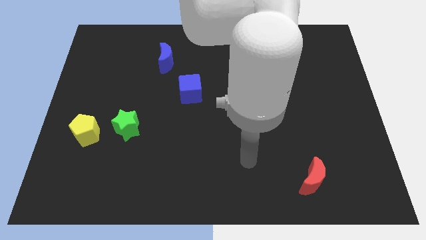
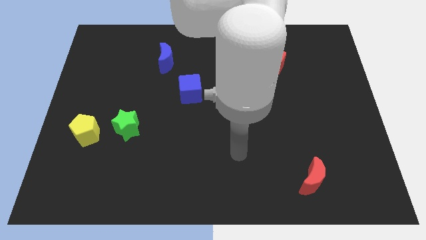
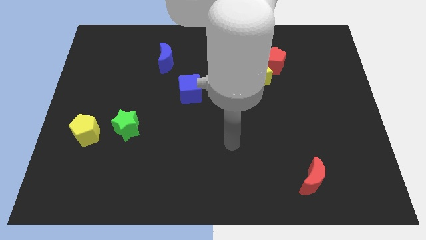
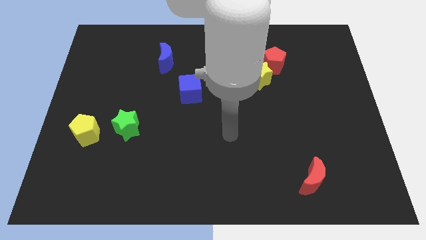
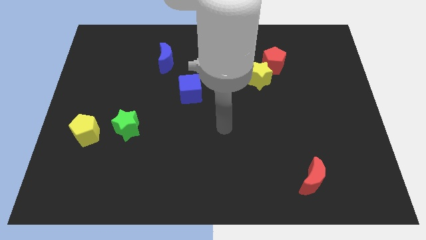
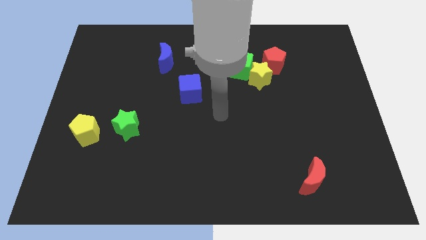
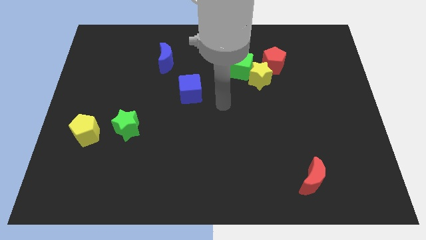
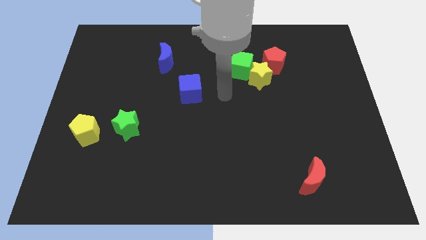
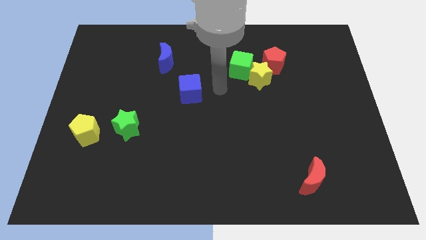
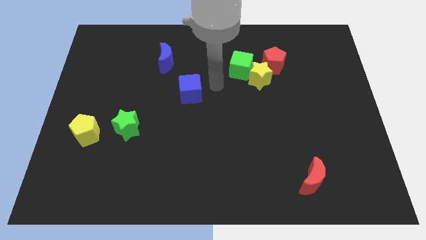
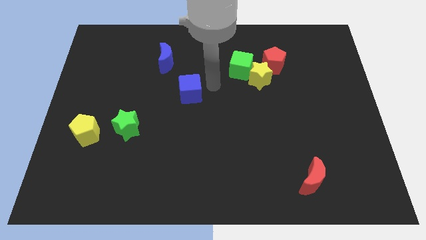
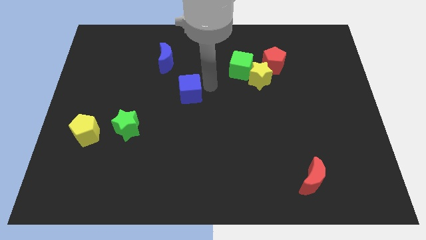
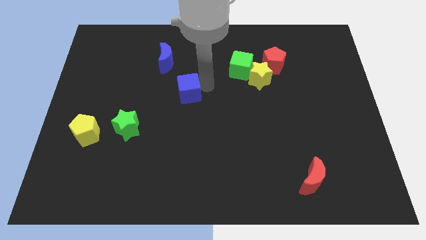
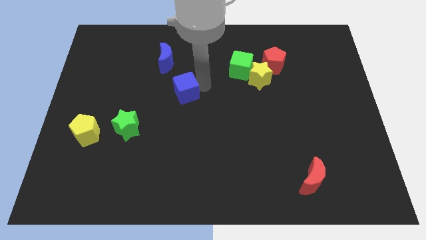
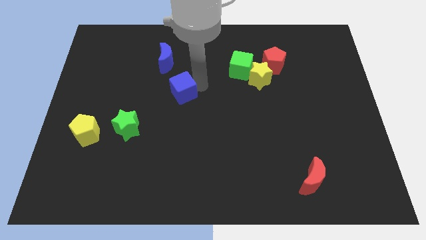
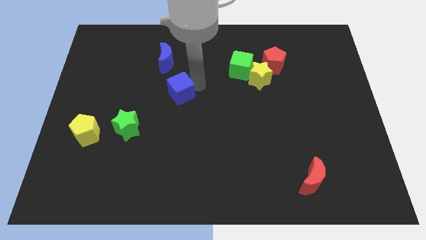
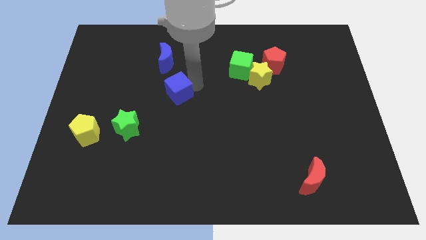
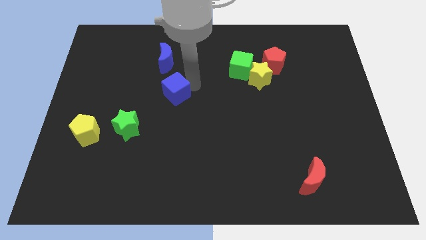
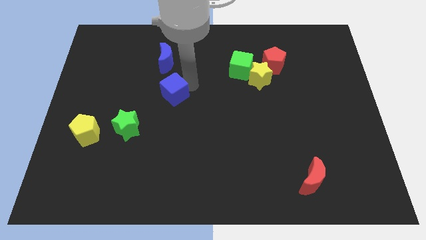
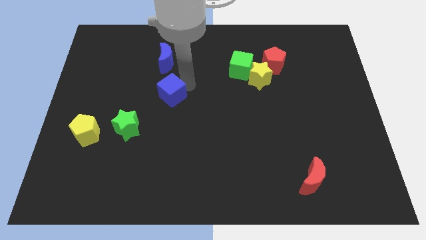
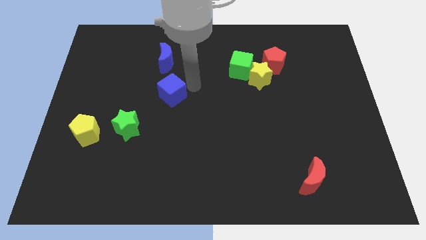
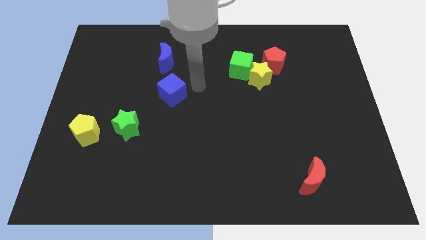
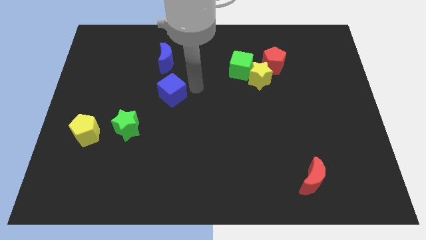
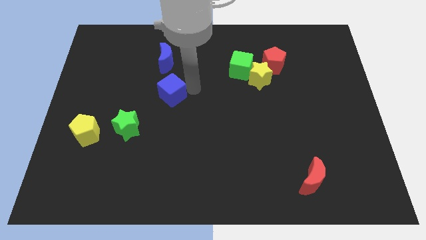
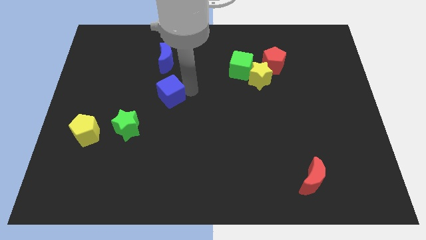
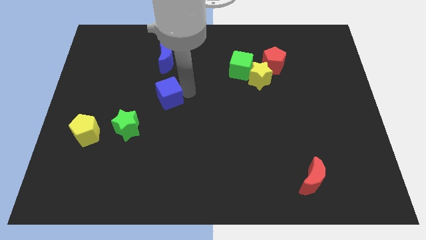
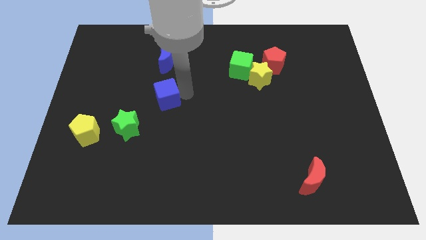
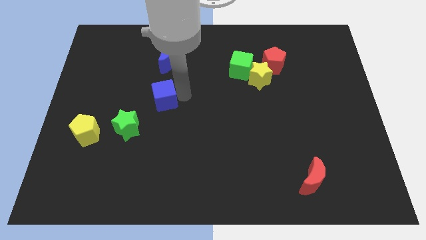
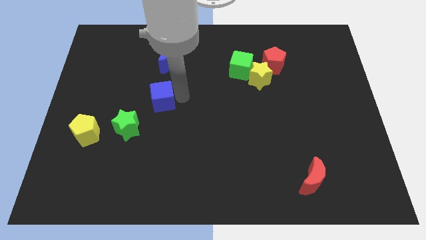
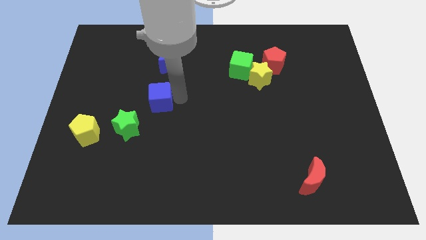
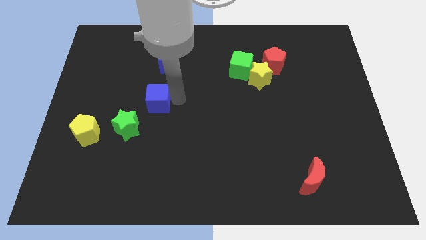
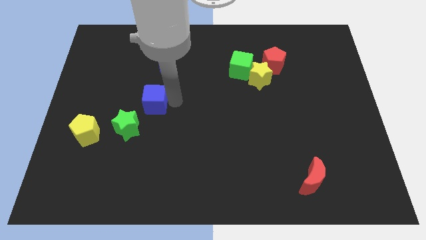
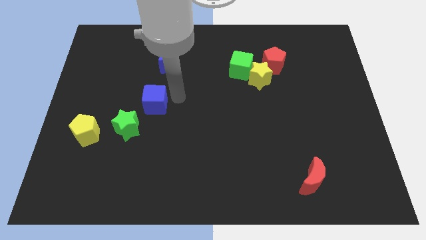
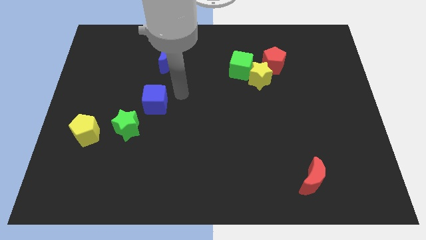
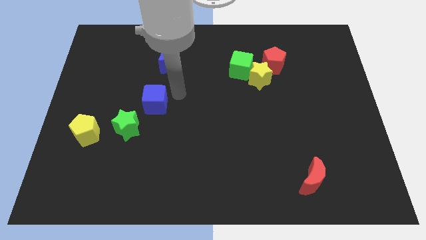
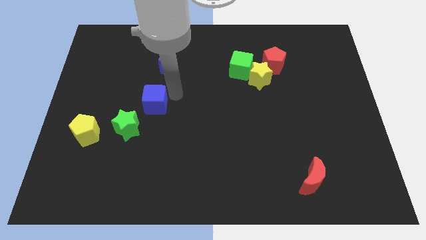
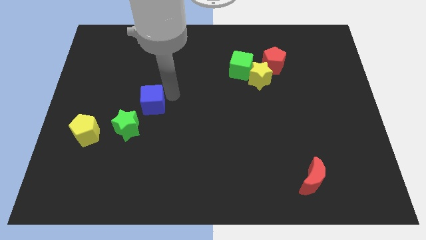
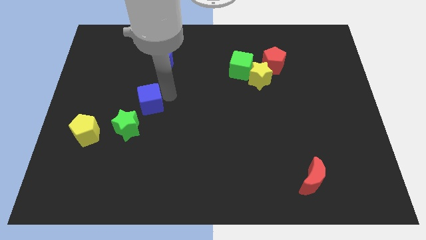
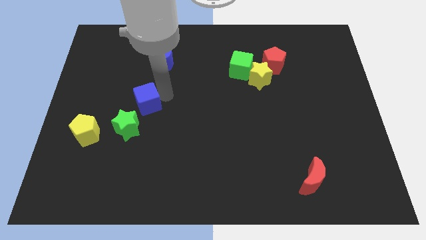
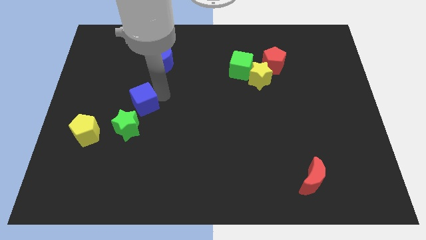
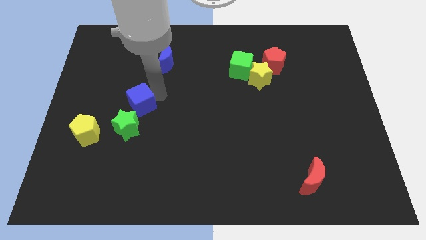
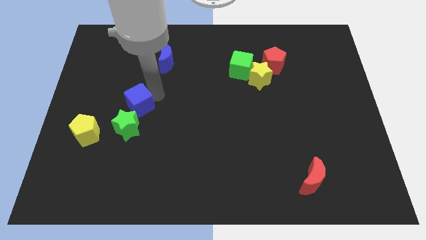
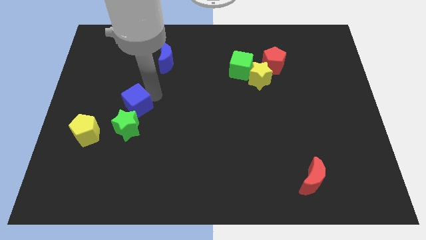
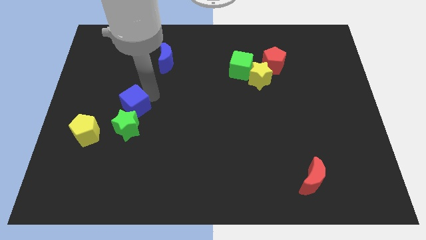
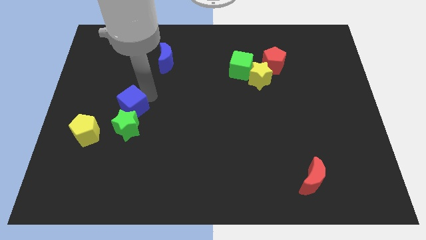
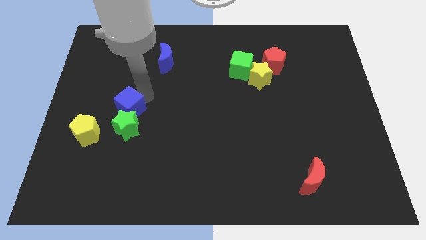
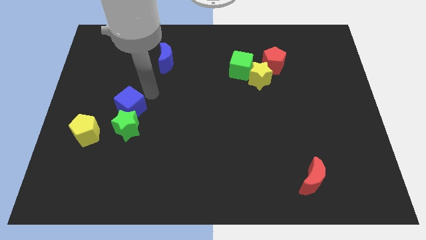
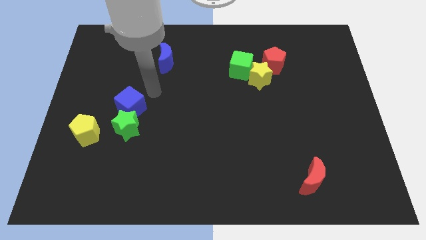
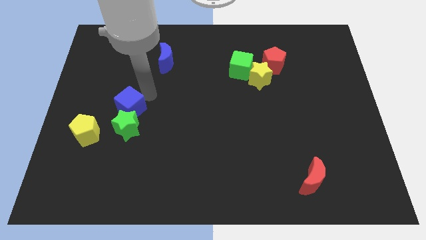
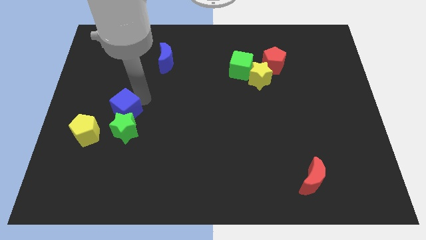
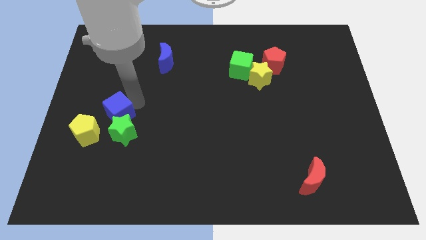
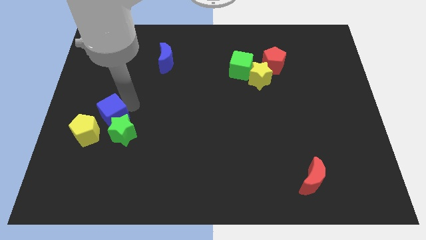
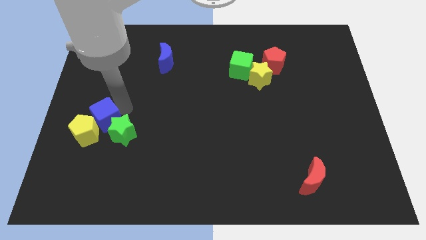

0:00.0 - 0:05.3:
move the blue cube to the yellow pentagon

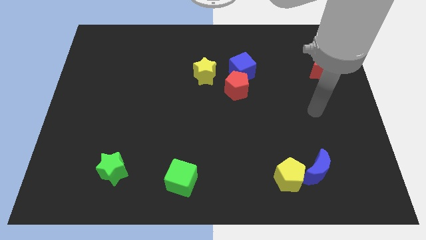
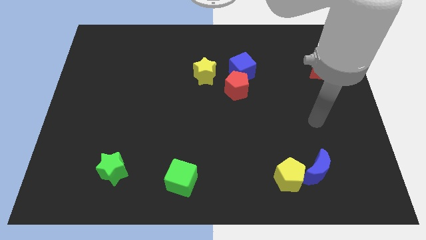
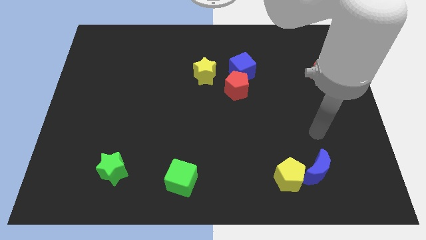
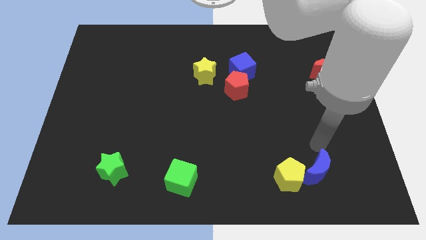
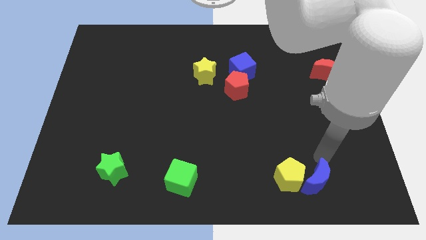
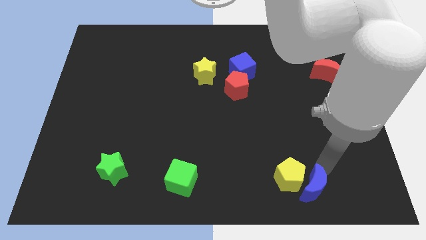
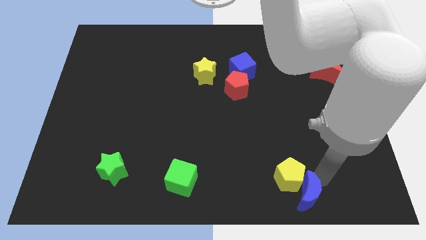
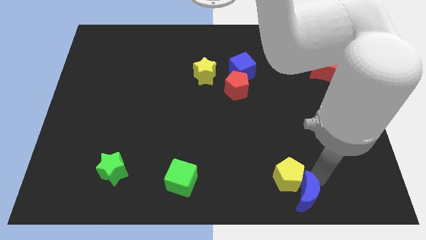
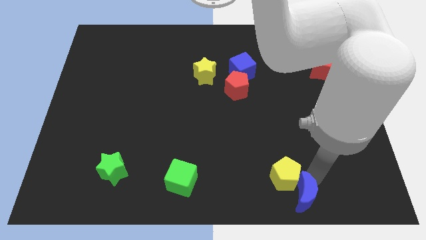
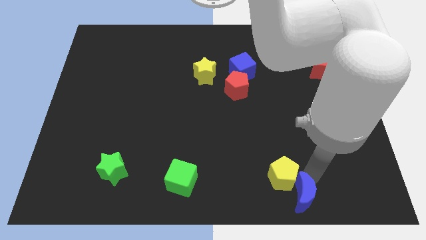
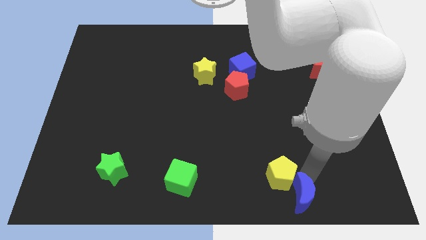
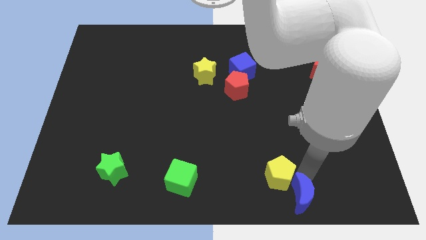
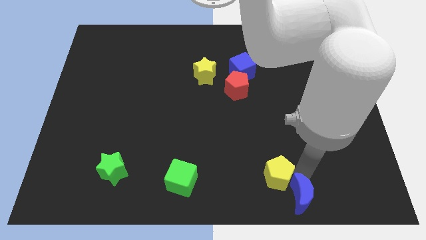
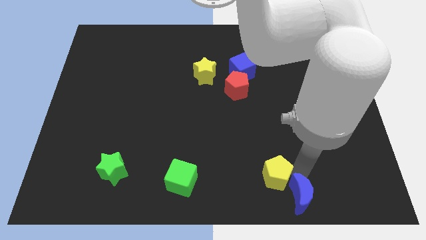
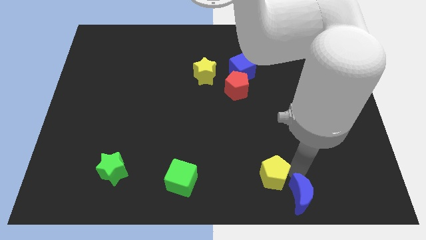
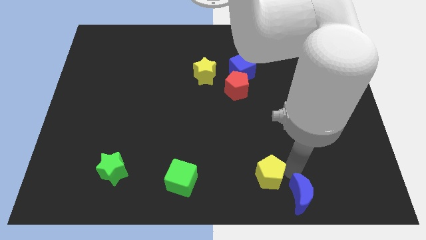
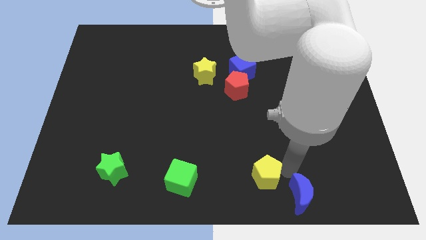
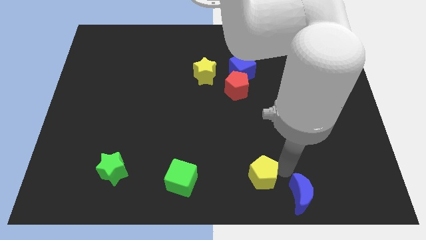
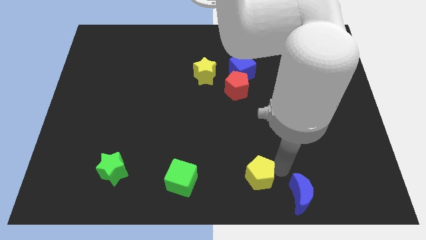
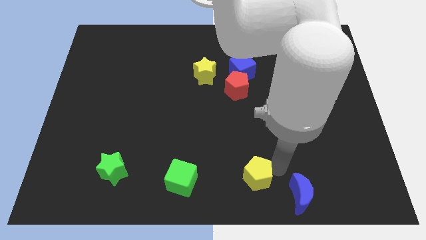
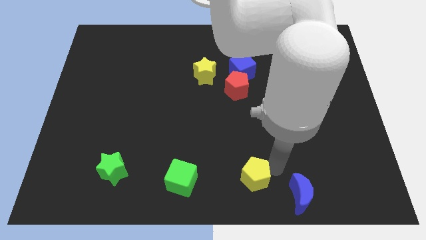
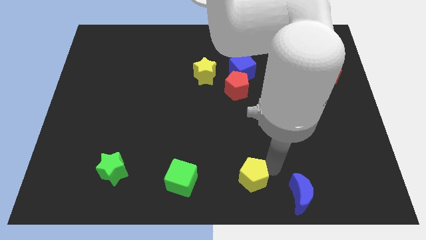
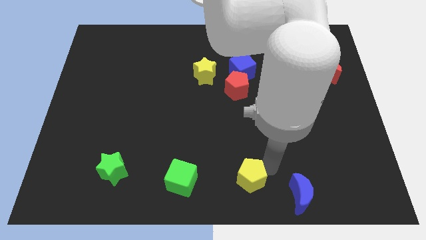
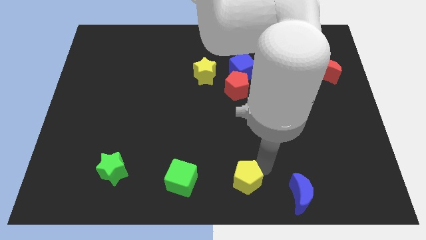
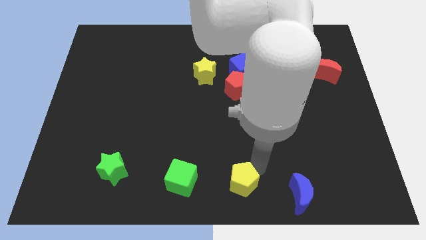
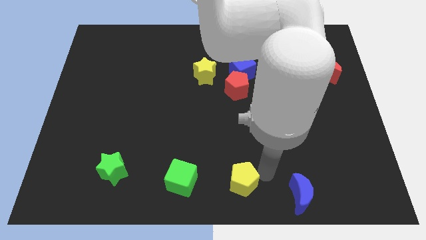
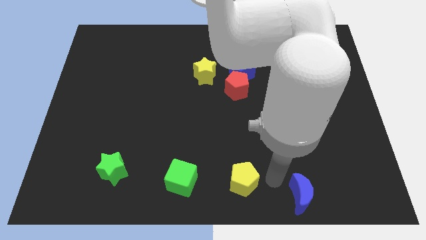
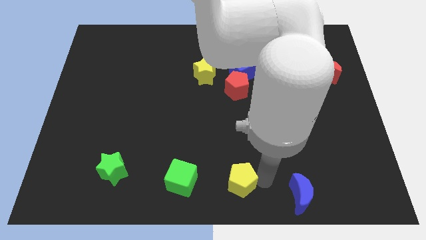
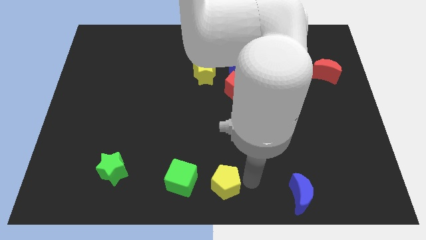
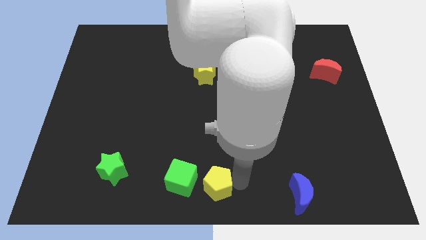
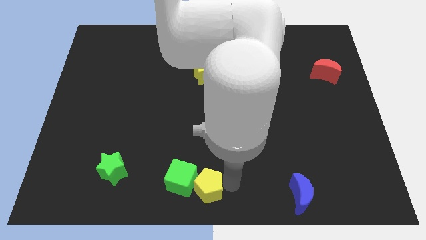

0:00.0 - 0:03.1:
put the yellow pentagon towards the green cube
